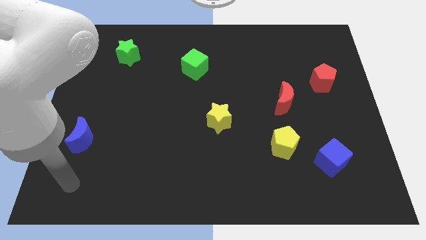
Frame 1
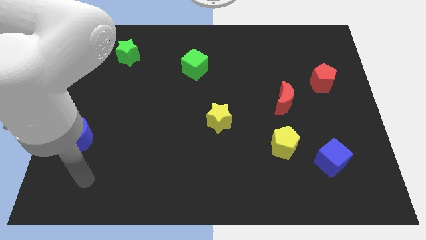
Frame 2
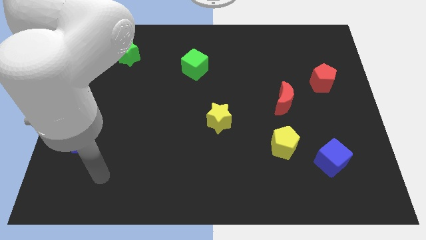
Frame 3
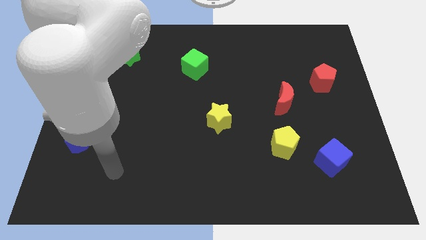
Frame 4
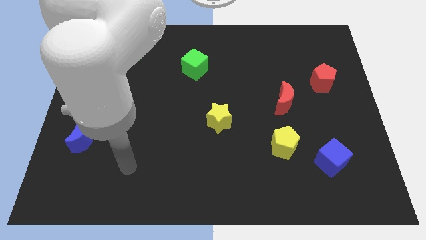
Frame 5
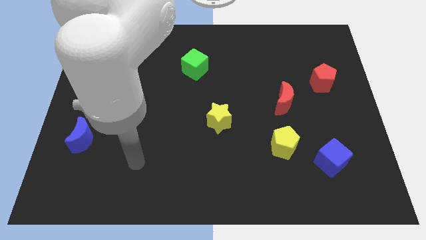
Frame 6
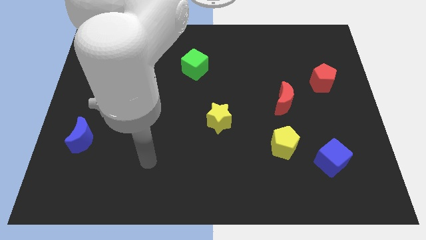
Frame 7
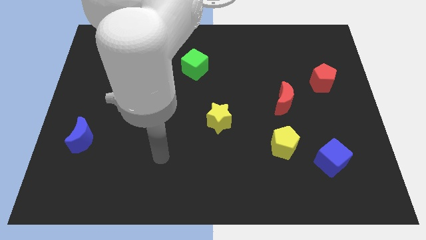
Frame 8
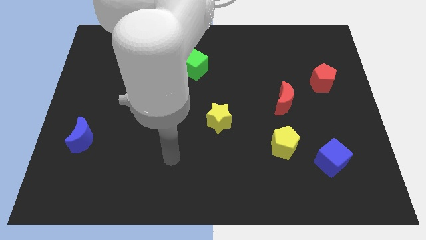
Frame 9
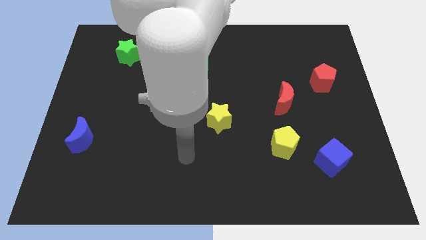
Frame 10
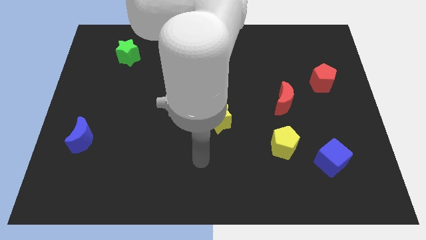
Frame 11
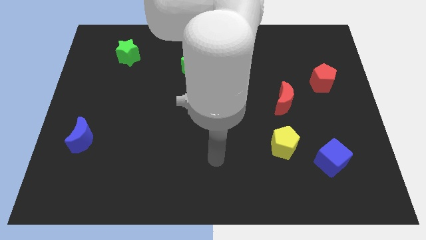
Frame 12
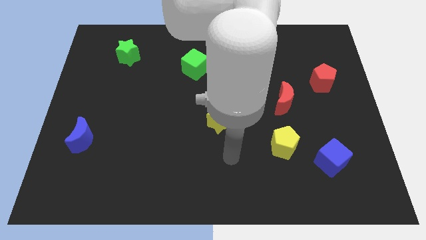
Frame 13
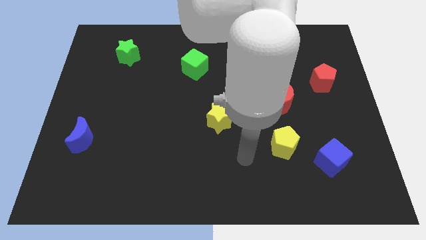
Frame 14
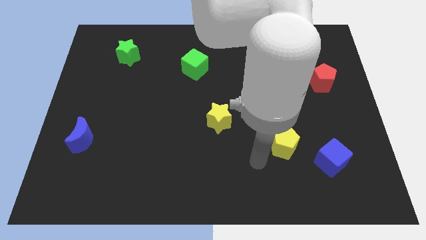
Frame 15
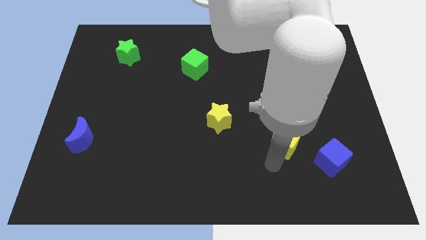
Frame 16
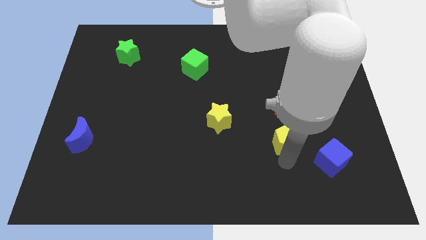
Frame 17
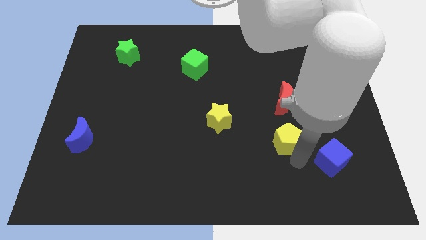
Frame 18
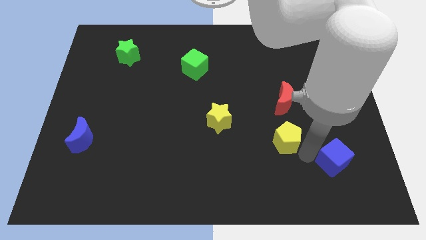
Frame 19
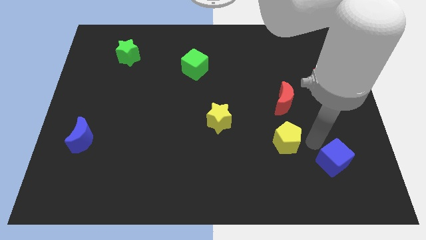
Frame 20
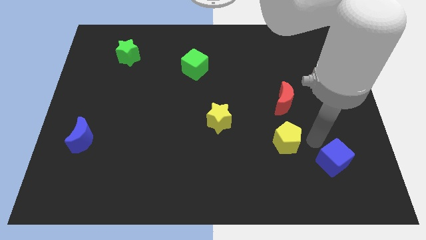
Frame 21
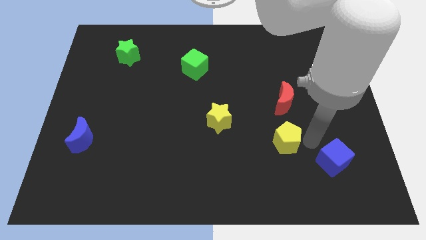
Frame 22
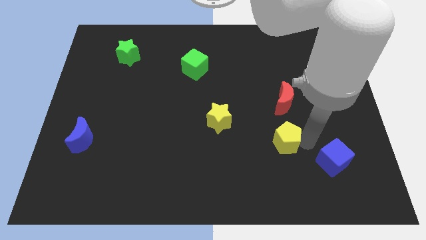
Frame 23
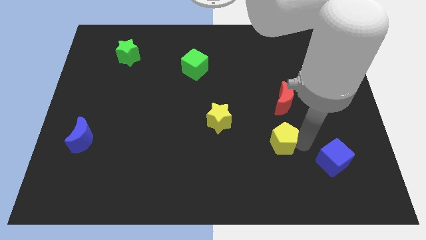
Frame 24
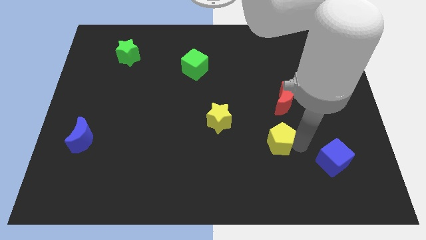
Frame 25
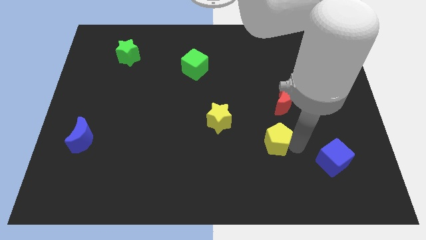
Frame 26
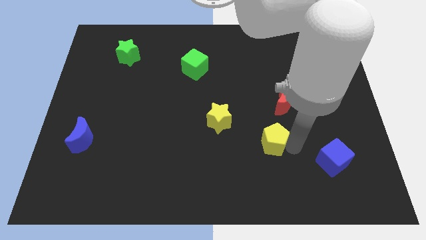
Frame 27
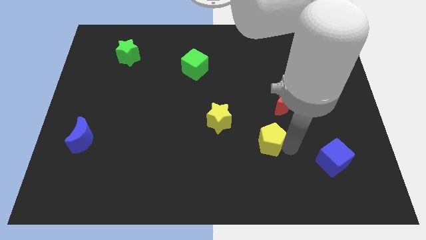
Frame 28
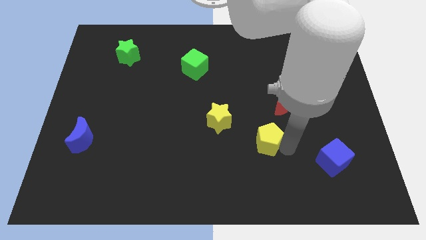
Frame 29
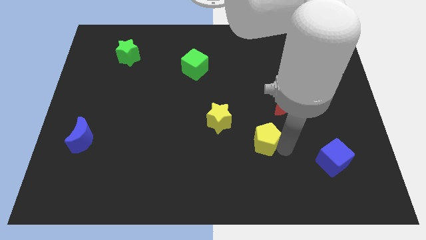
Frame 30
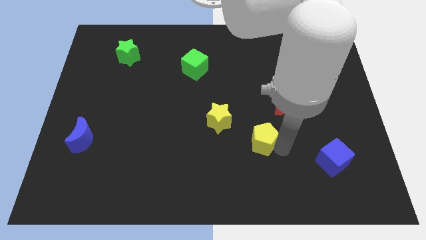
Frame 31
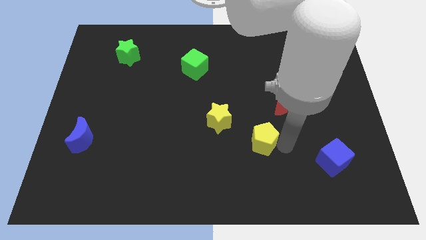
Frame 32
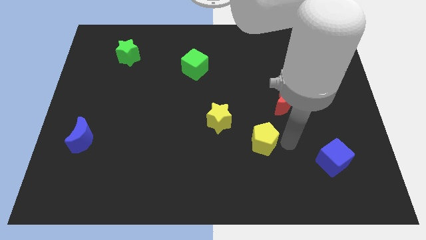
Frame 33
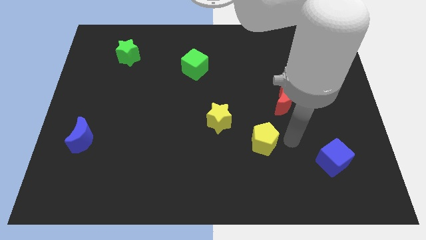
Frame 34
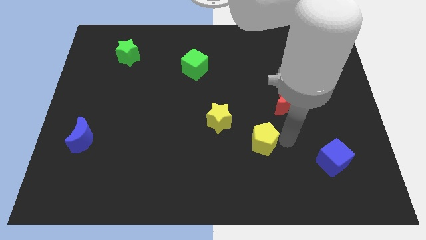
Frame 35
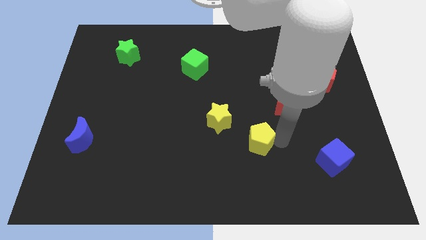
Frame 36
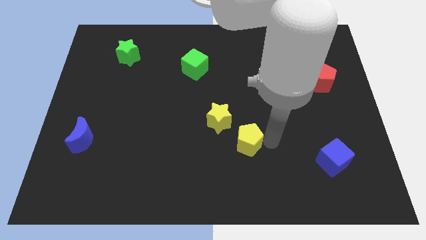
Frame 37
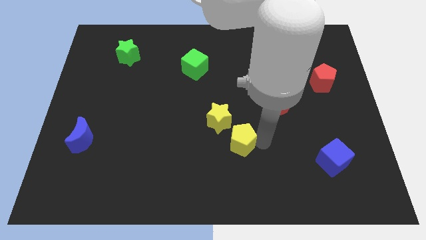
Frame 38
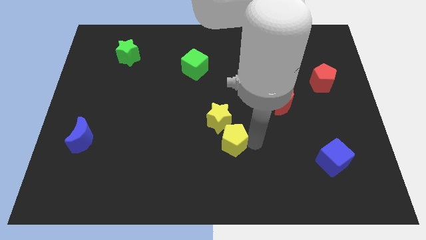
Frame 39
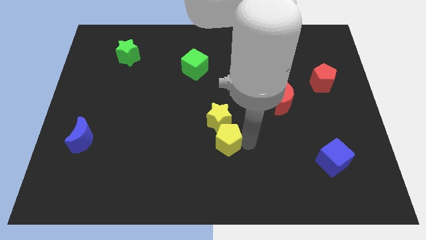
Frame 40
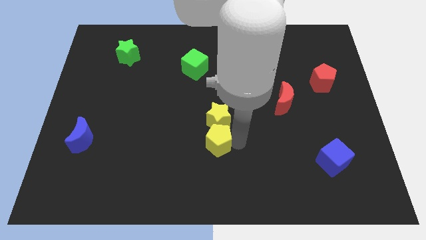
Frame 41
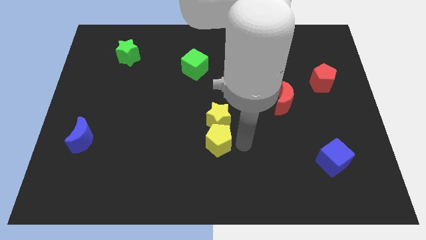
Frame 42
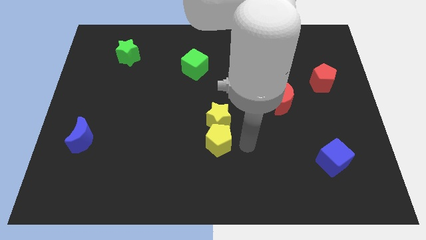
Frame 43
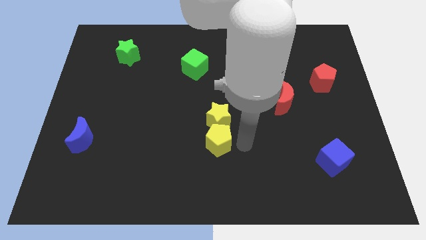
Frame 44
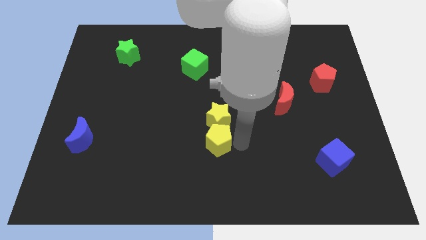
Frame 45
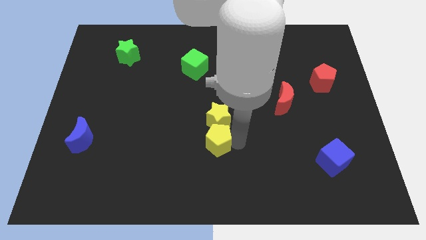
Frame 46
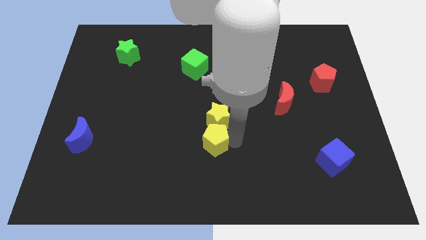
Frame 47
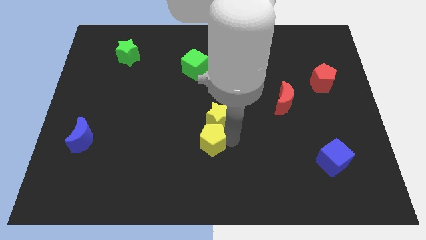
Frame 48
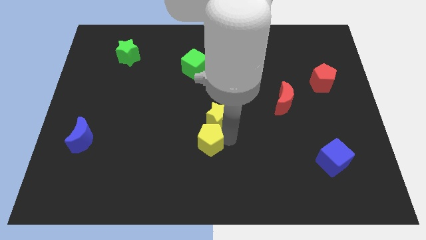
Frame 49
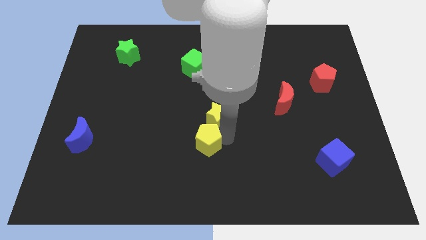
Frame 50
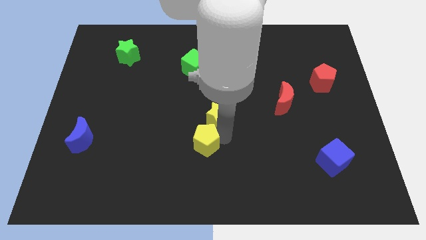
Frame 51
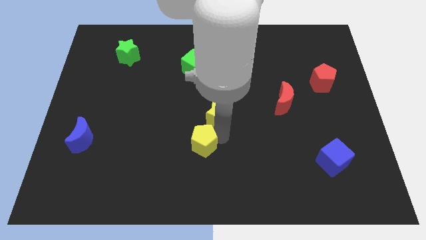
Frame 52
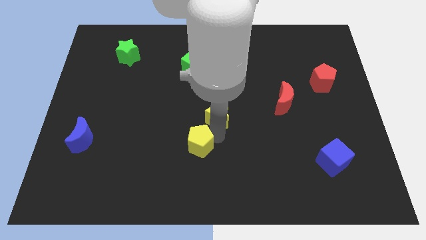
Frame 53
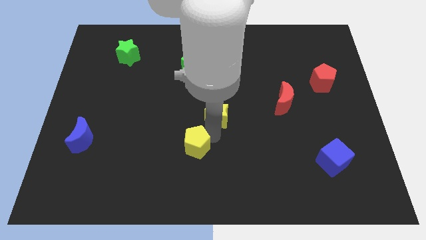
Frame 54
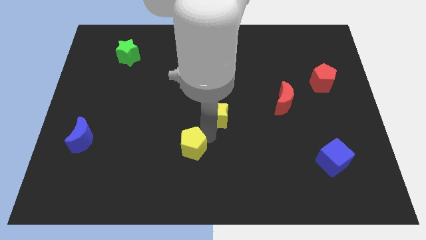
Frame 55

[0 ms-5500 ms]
slide the yellow pentagon to the left

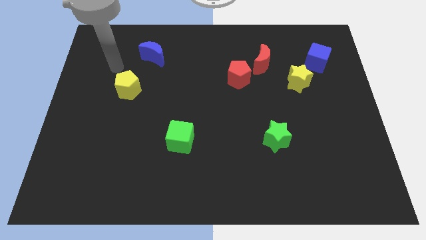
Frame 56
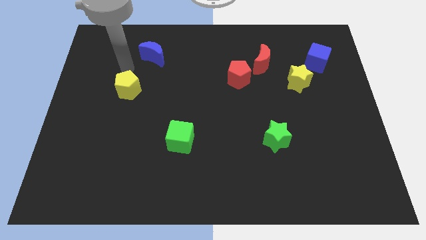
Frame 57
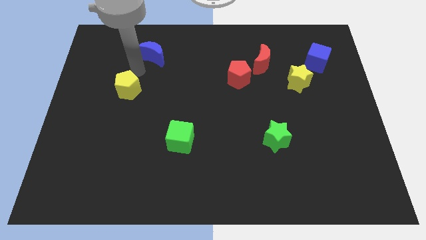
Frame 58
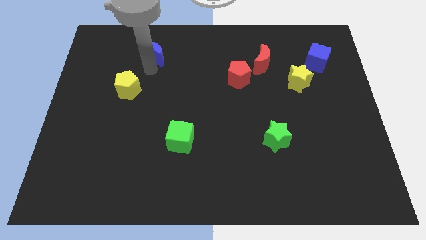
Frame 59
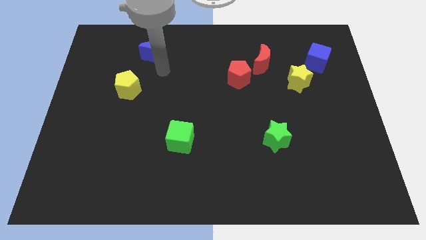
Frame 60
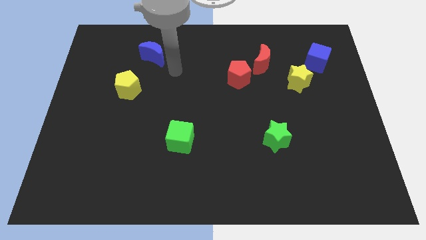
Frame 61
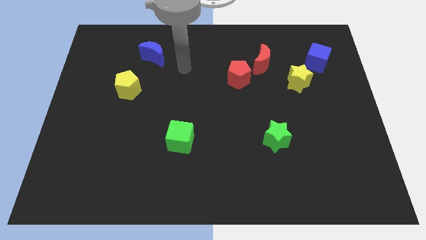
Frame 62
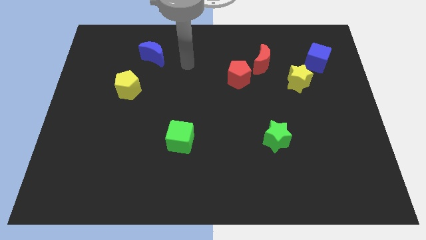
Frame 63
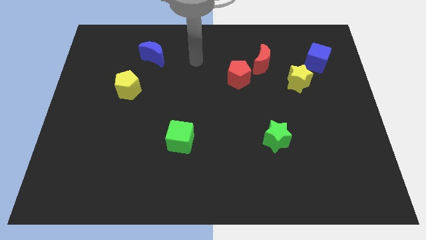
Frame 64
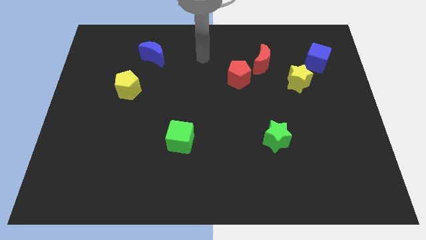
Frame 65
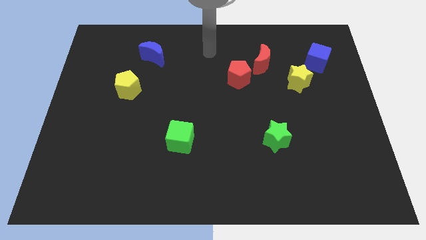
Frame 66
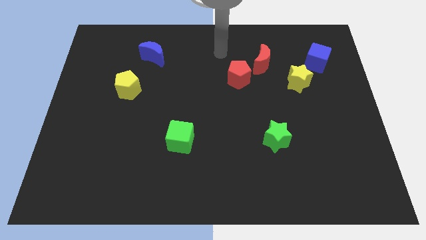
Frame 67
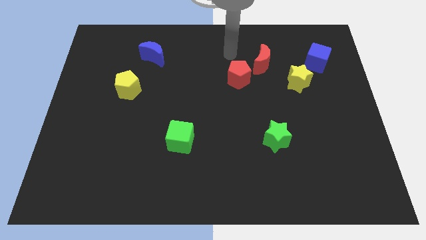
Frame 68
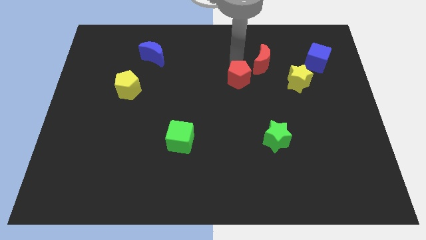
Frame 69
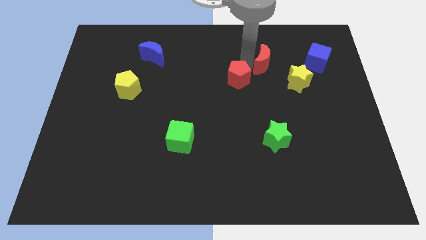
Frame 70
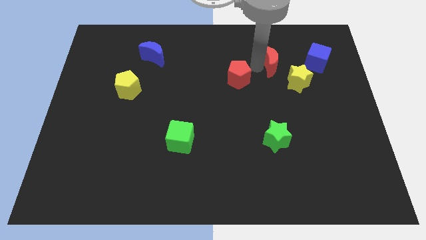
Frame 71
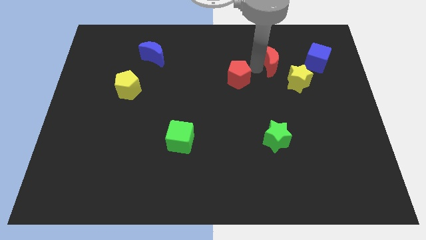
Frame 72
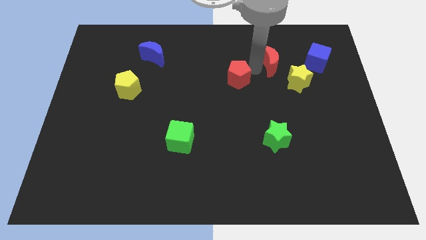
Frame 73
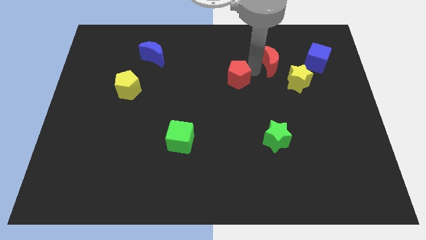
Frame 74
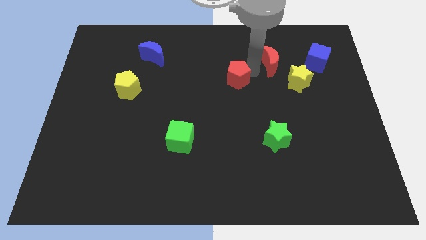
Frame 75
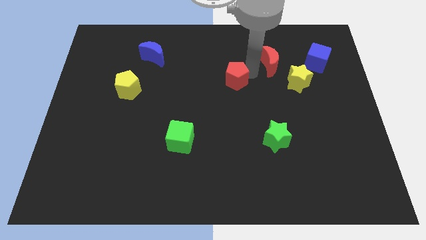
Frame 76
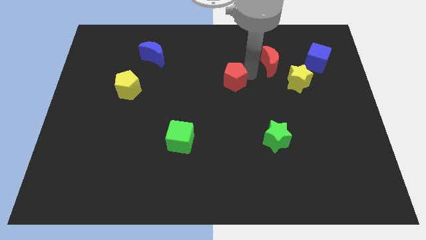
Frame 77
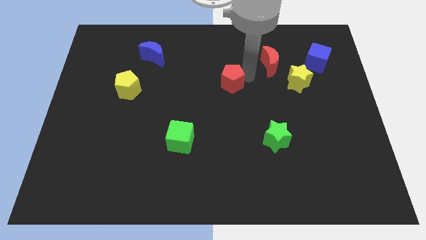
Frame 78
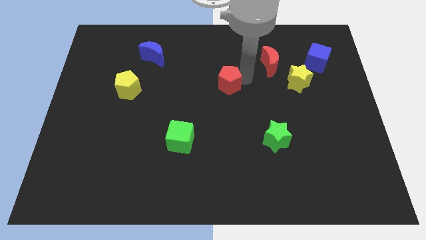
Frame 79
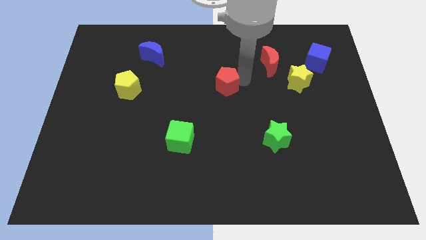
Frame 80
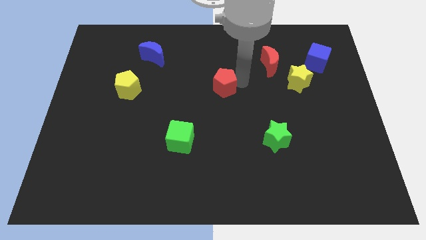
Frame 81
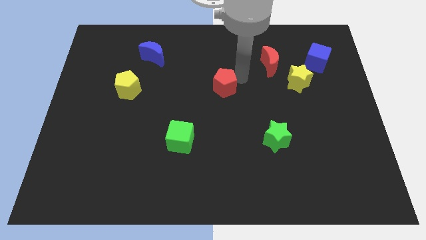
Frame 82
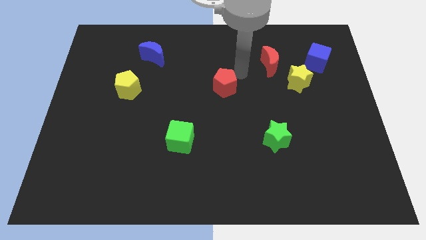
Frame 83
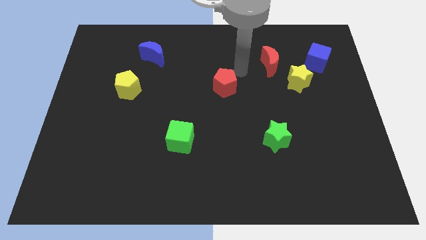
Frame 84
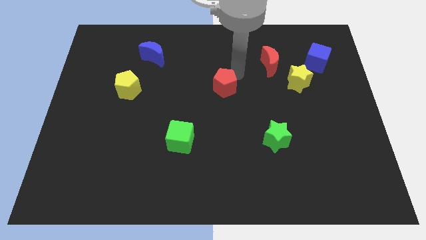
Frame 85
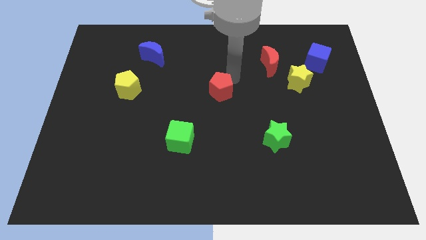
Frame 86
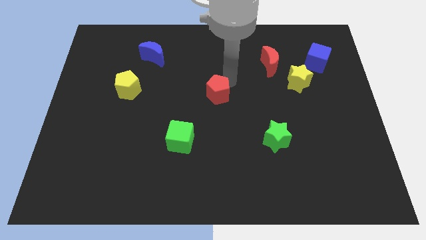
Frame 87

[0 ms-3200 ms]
slightly slide the red pentagon down and then left
